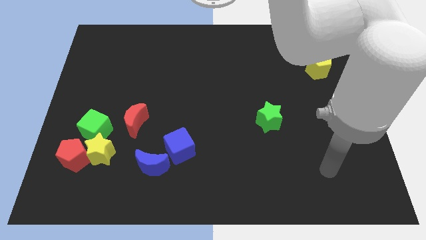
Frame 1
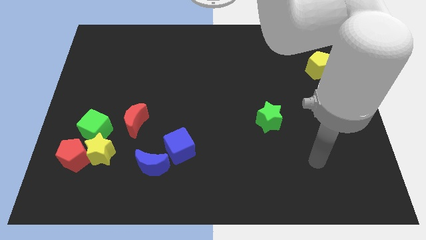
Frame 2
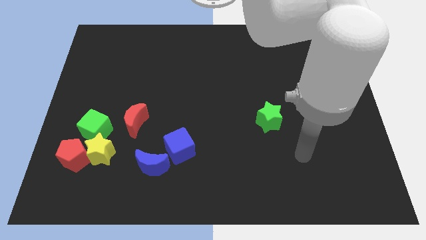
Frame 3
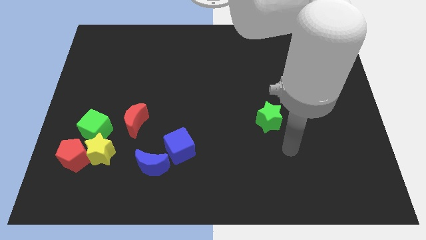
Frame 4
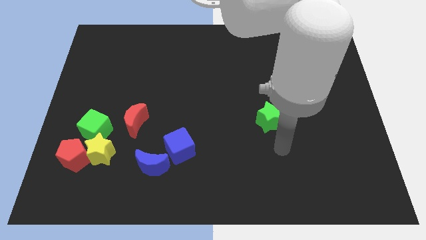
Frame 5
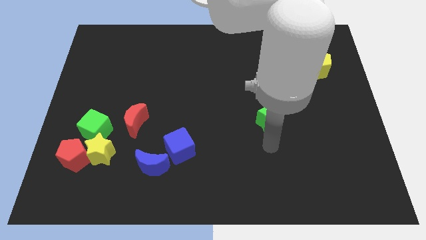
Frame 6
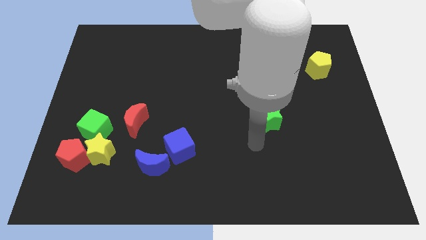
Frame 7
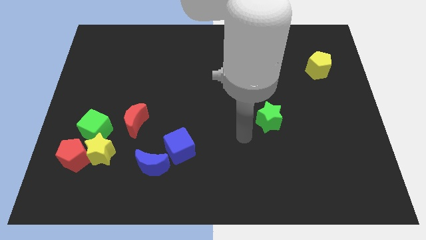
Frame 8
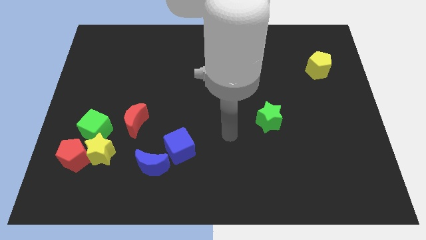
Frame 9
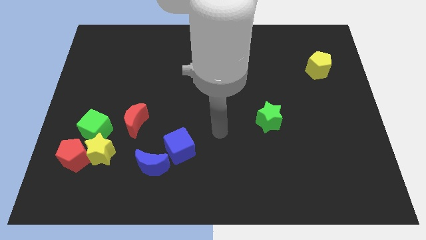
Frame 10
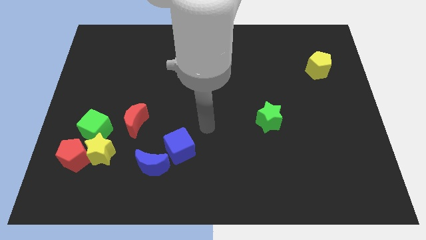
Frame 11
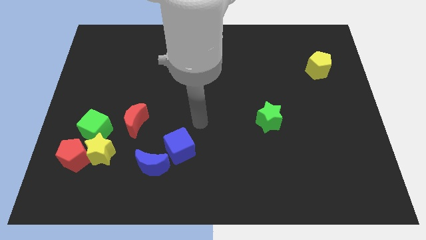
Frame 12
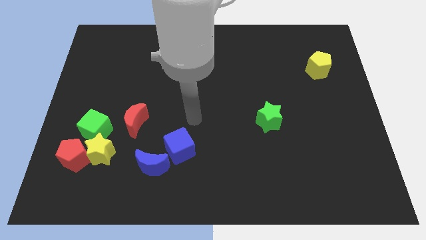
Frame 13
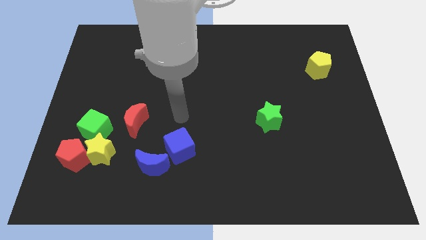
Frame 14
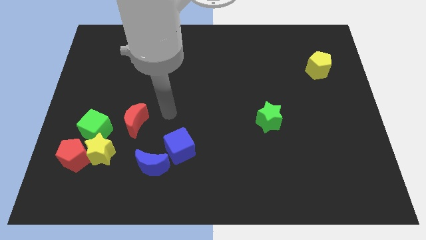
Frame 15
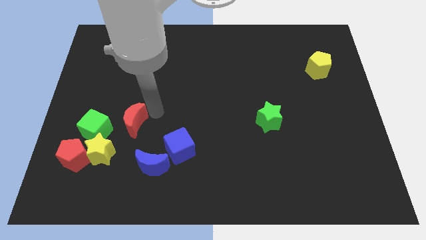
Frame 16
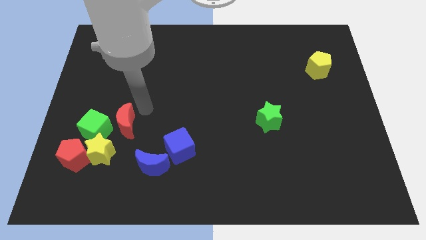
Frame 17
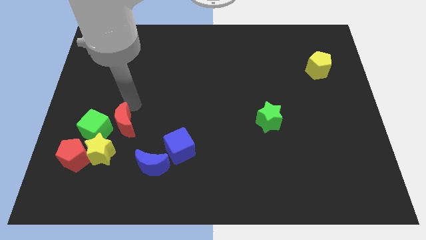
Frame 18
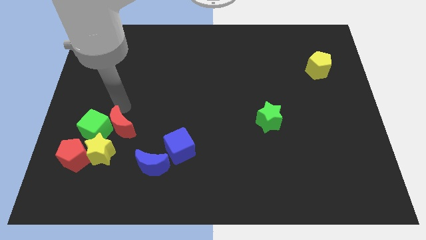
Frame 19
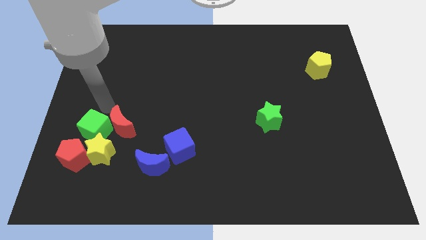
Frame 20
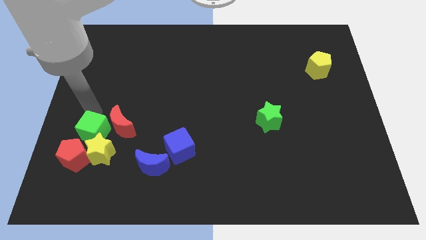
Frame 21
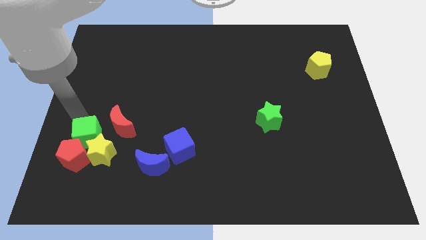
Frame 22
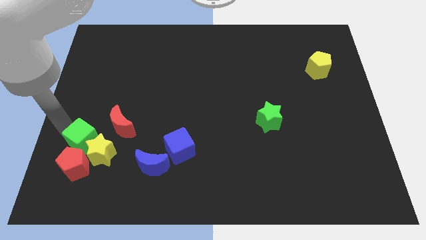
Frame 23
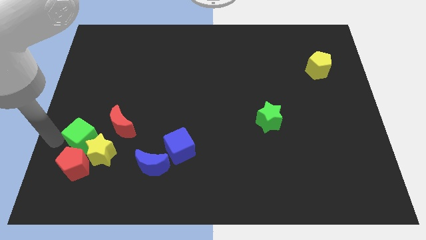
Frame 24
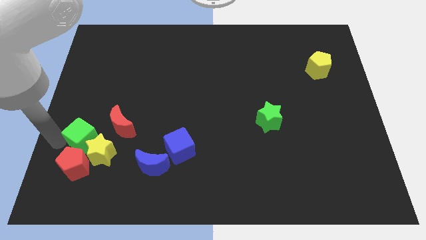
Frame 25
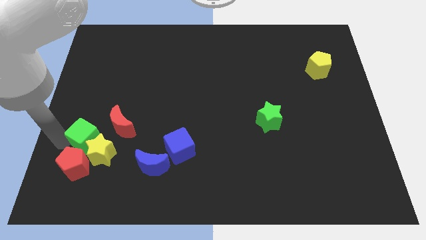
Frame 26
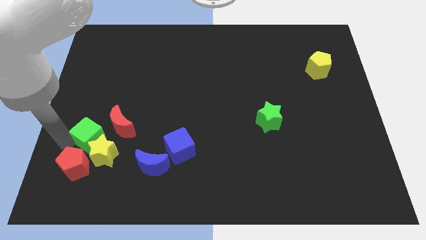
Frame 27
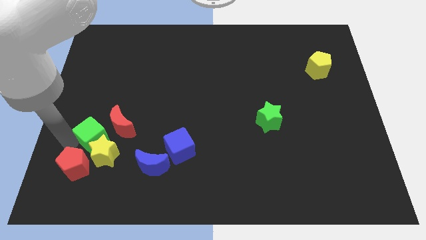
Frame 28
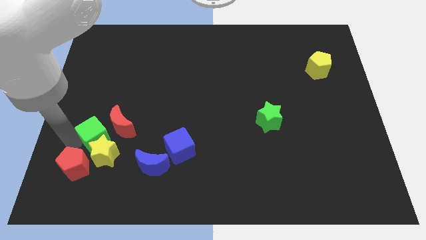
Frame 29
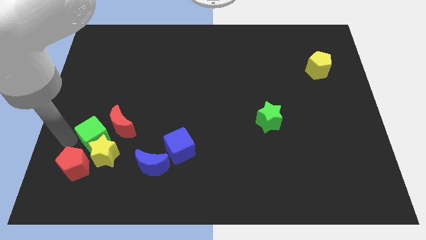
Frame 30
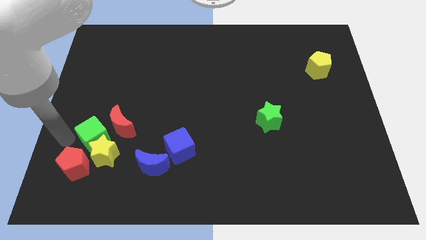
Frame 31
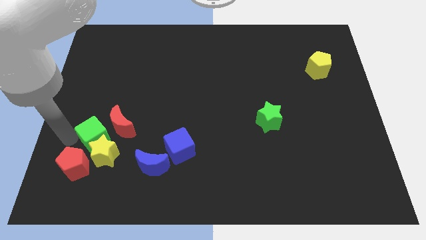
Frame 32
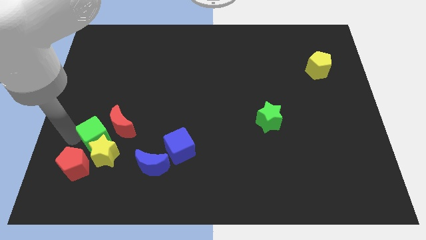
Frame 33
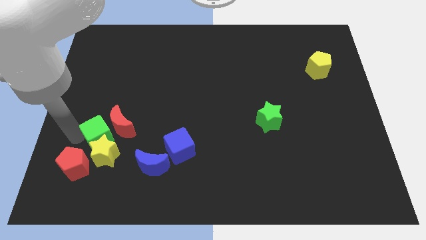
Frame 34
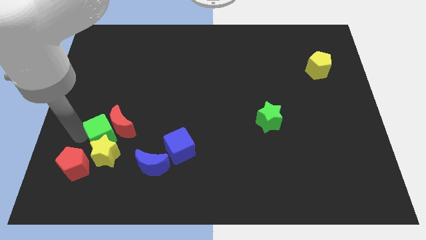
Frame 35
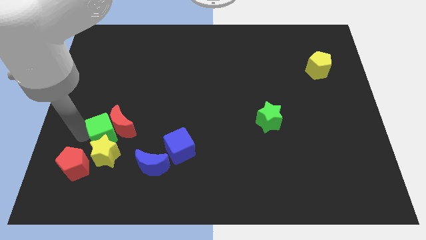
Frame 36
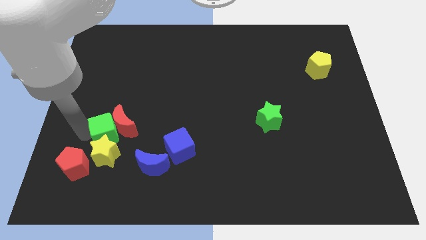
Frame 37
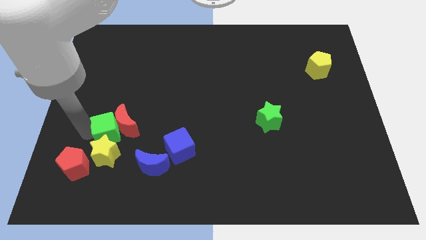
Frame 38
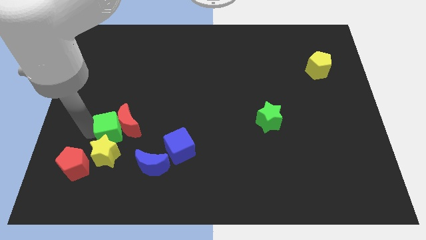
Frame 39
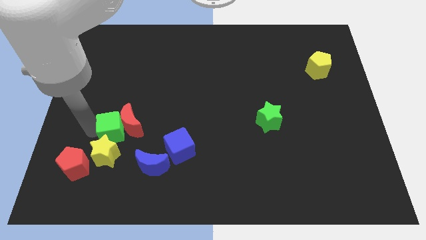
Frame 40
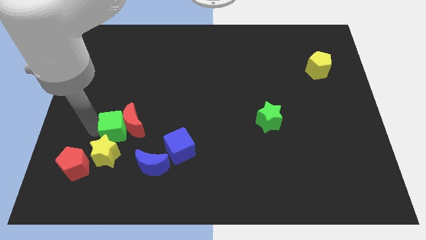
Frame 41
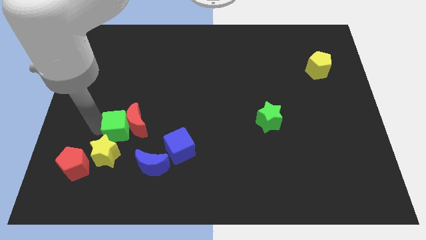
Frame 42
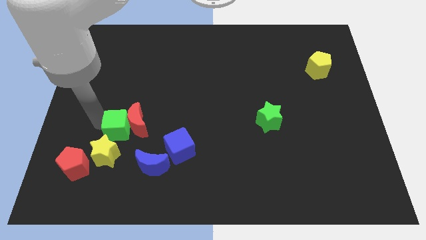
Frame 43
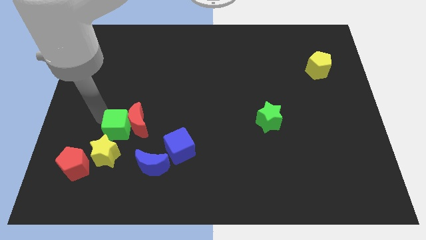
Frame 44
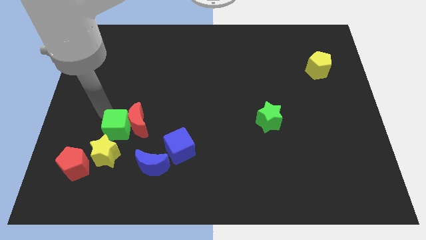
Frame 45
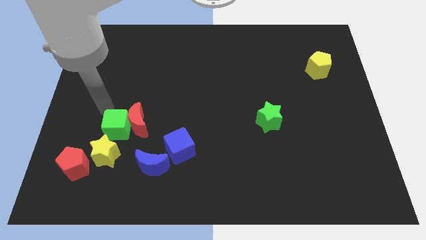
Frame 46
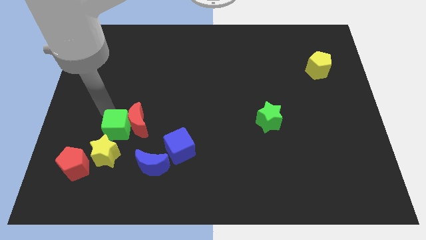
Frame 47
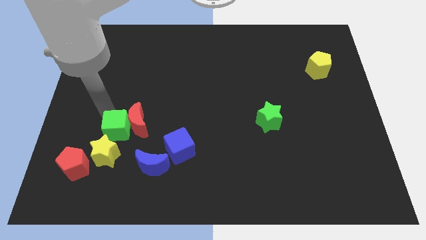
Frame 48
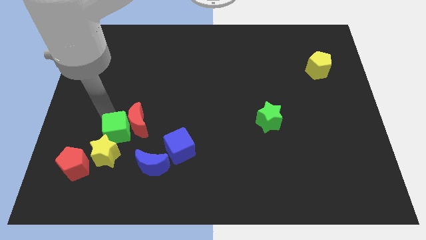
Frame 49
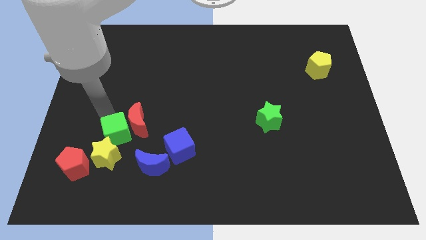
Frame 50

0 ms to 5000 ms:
move the green cube to the left of the blue cube

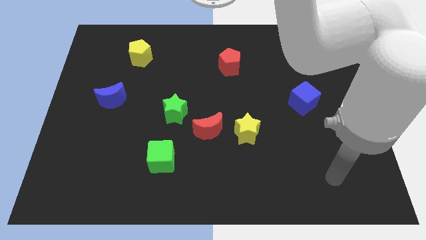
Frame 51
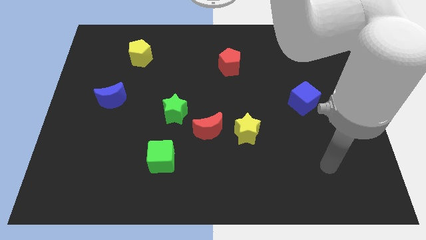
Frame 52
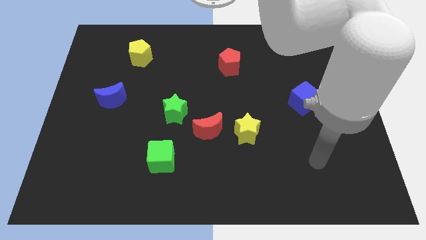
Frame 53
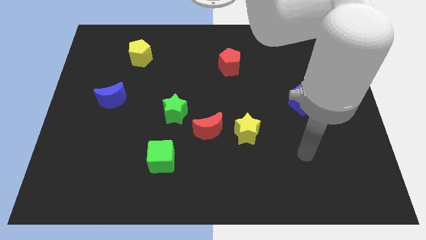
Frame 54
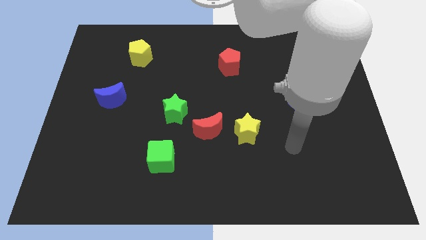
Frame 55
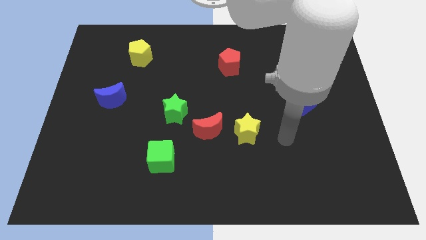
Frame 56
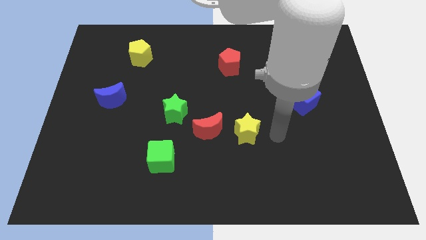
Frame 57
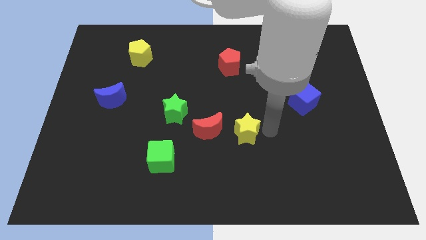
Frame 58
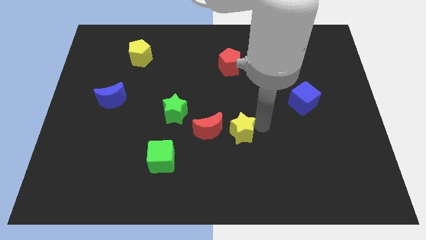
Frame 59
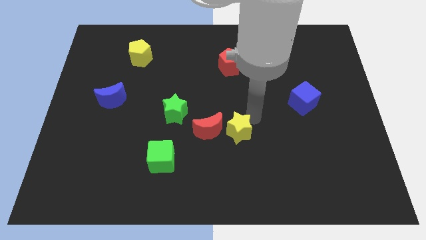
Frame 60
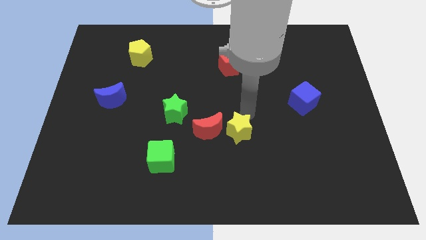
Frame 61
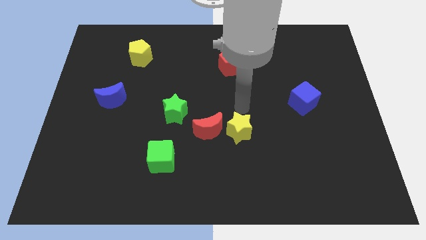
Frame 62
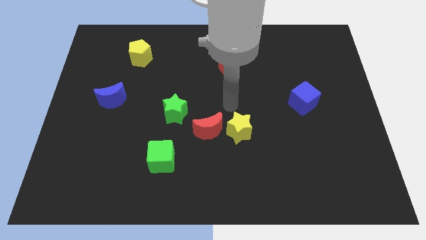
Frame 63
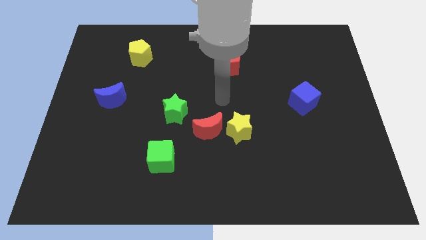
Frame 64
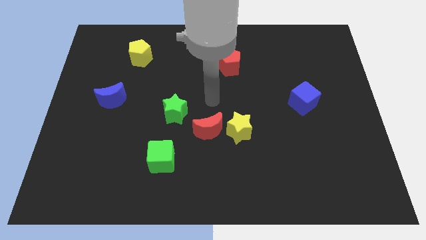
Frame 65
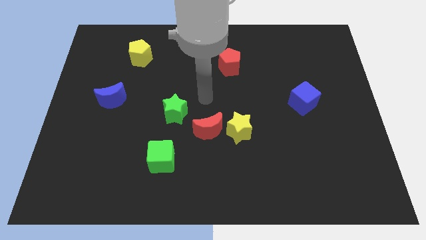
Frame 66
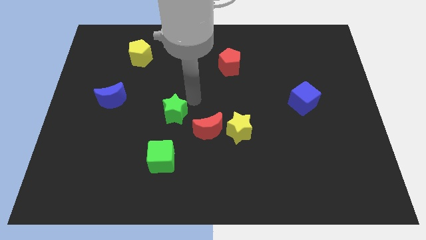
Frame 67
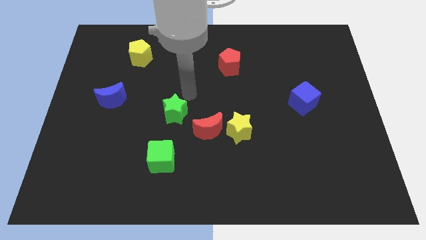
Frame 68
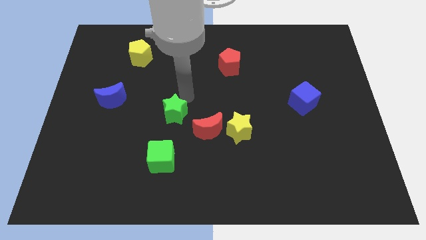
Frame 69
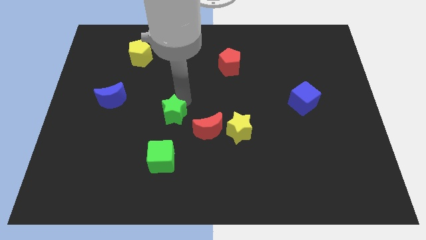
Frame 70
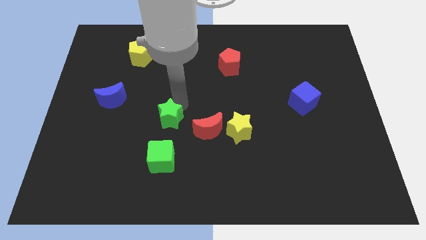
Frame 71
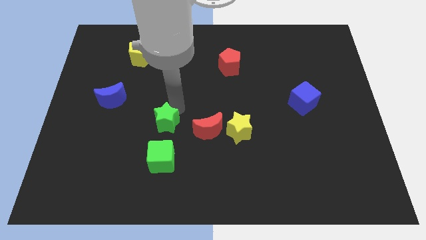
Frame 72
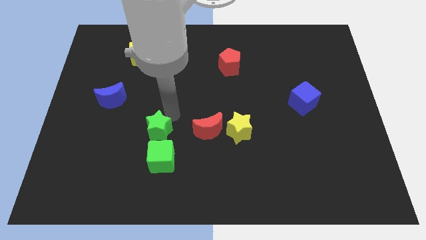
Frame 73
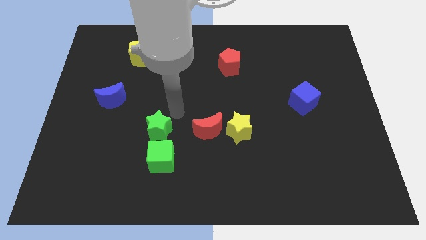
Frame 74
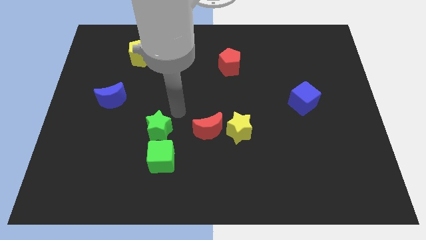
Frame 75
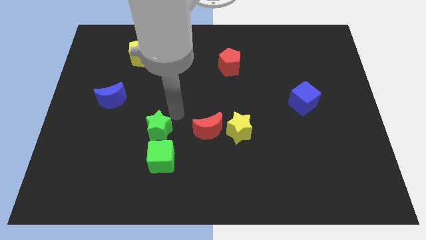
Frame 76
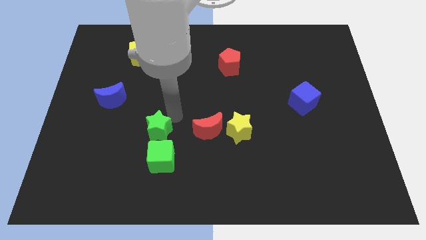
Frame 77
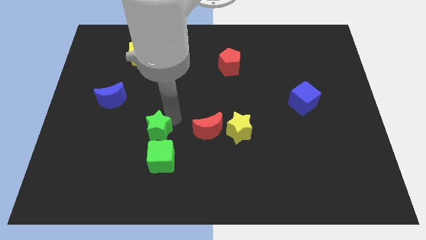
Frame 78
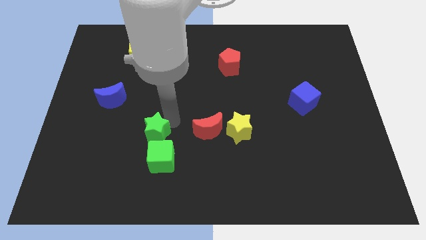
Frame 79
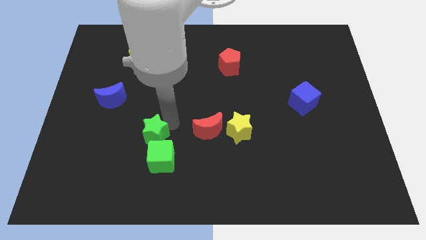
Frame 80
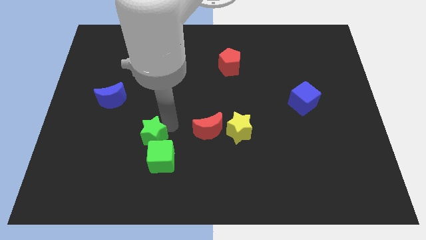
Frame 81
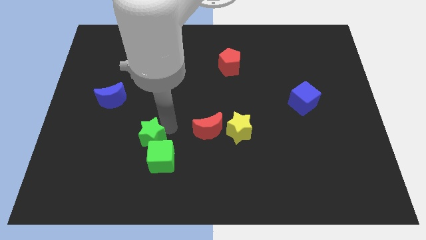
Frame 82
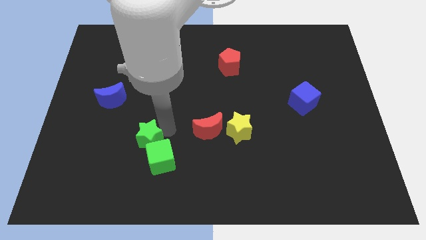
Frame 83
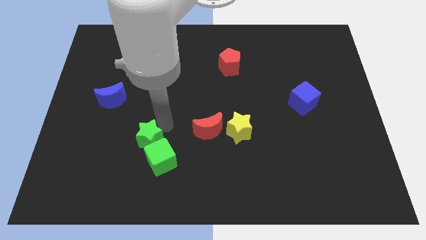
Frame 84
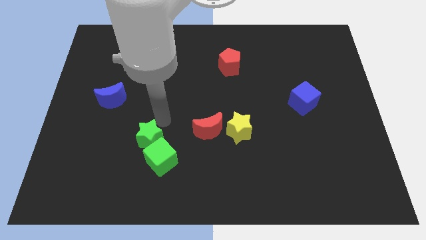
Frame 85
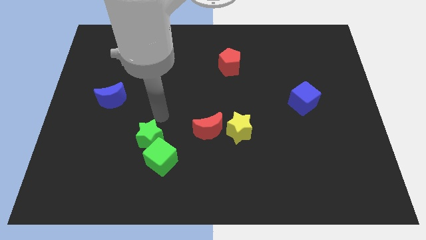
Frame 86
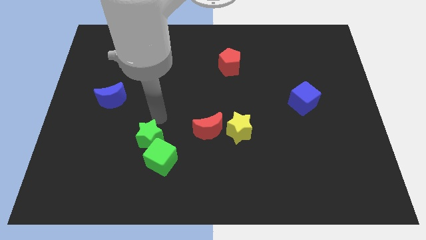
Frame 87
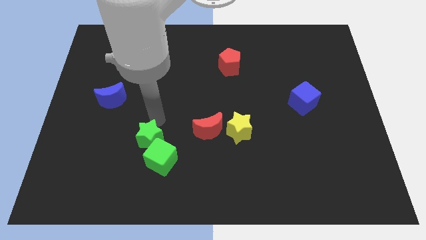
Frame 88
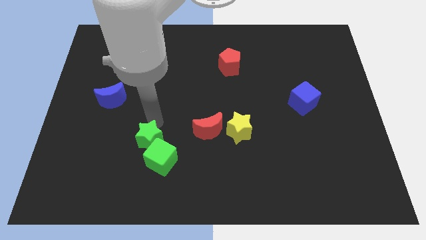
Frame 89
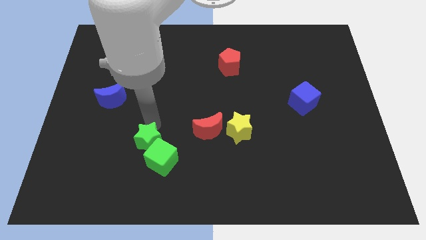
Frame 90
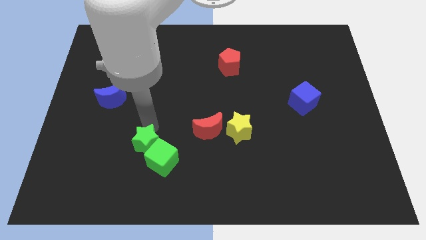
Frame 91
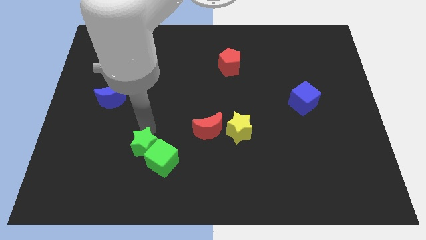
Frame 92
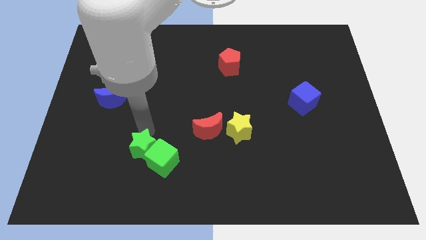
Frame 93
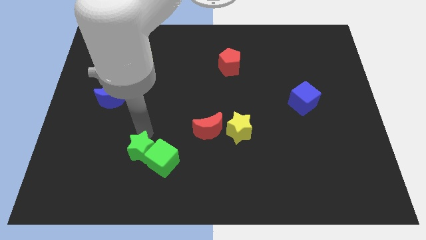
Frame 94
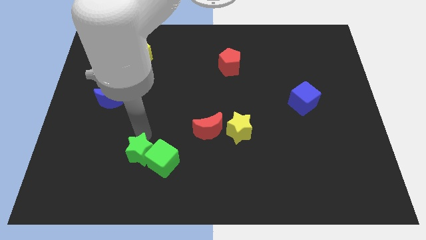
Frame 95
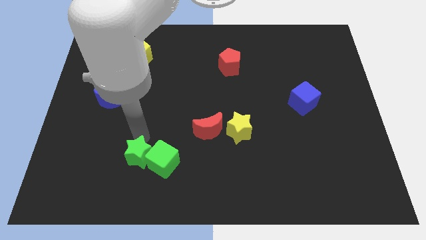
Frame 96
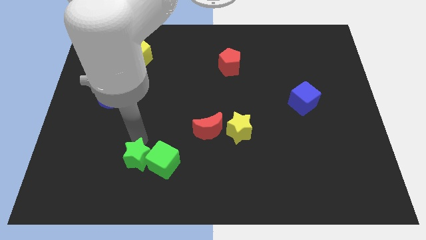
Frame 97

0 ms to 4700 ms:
slide the green star to the bottom left side of the green cube
